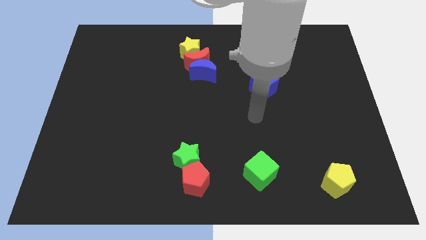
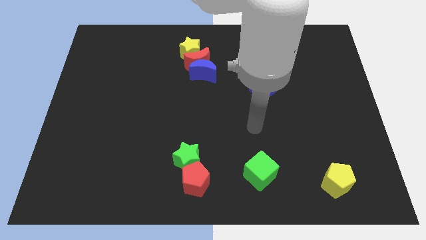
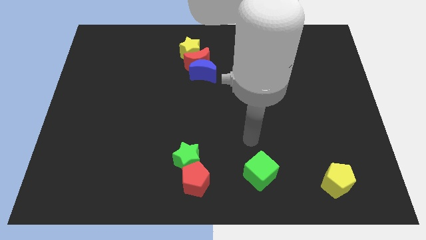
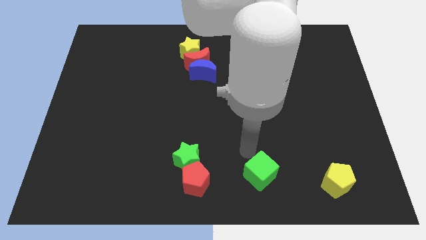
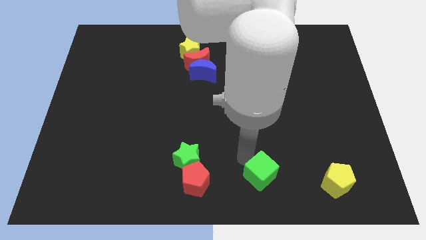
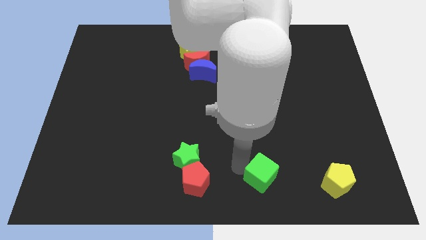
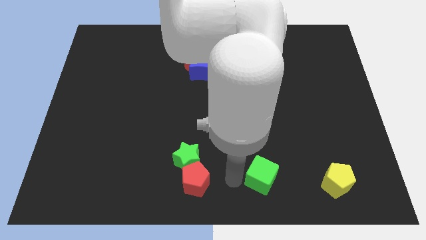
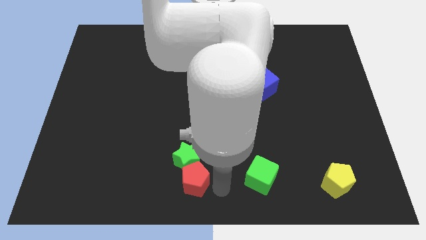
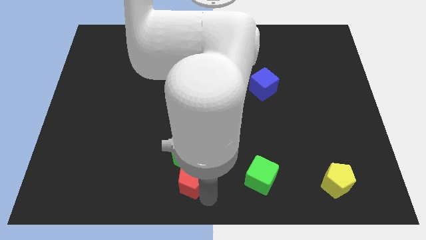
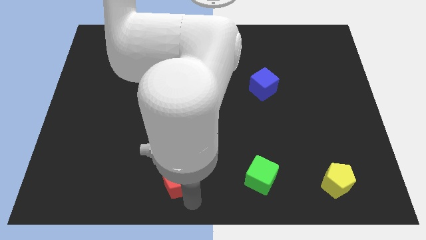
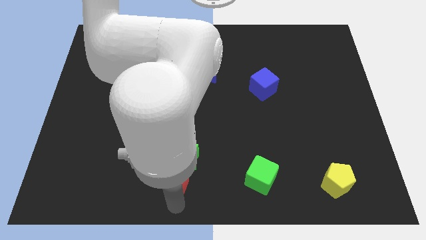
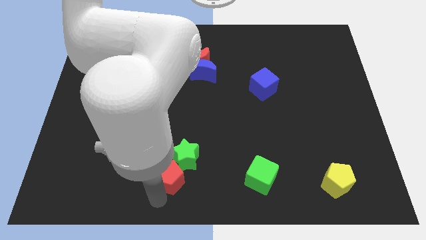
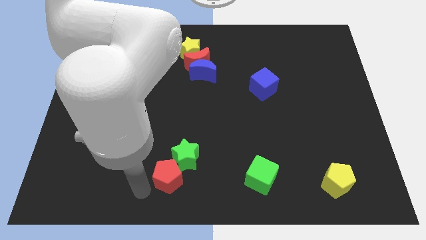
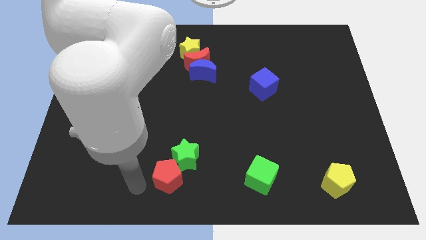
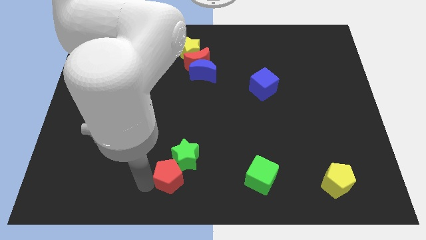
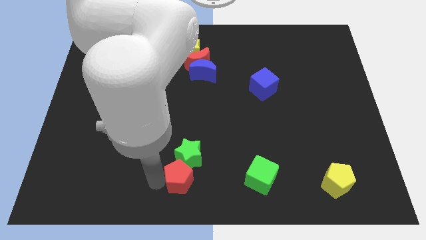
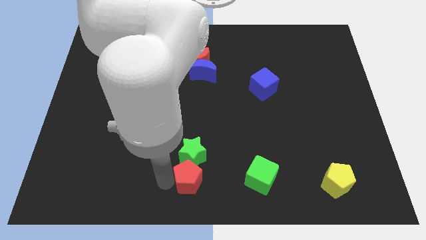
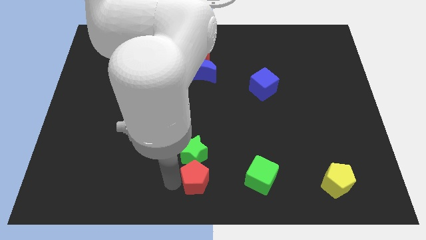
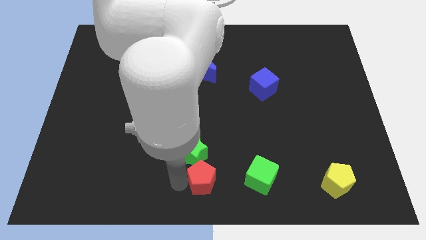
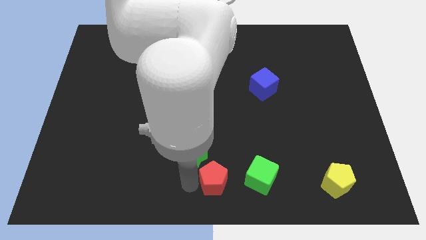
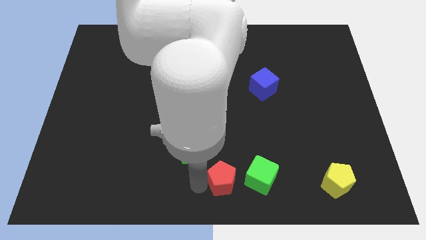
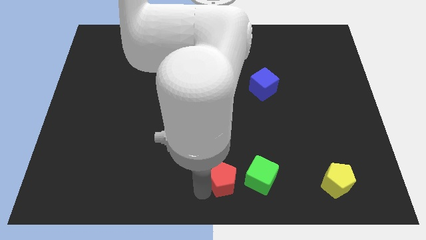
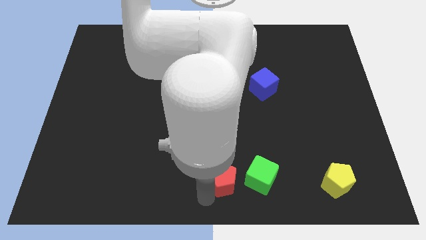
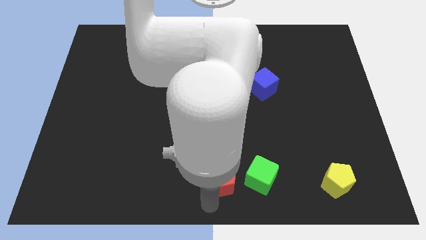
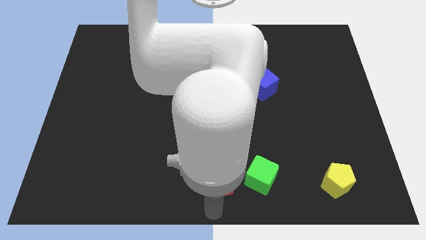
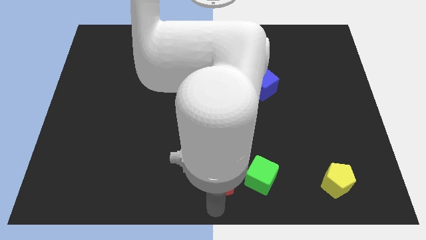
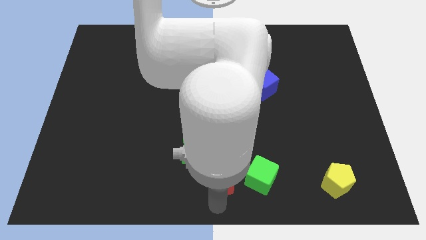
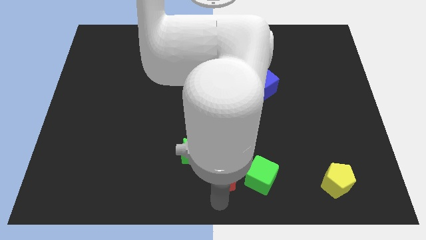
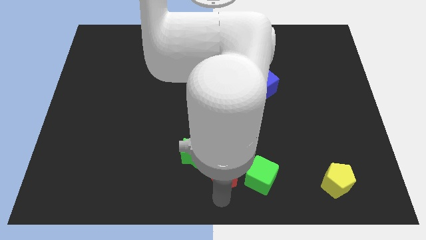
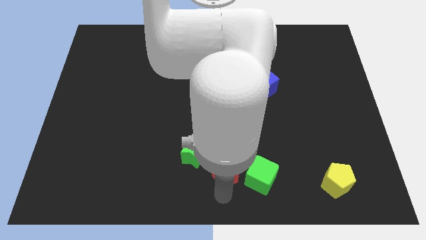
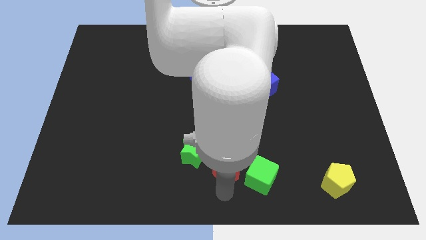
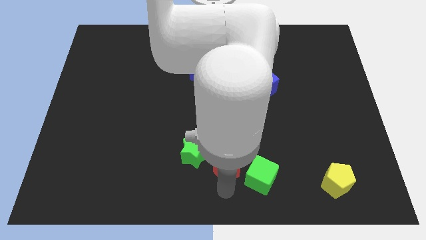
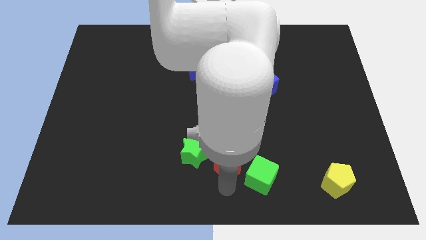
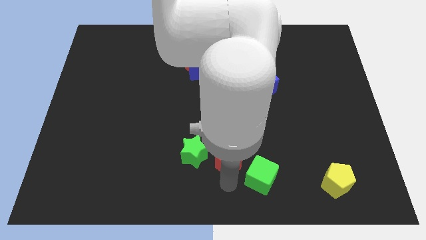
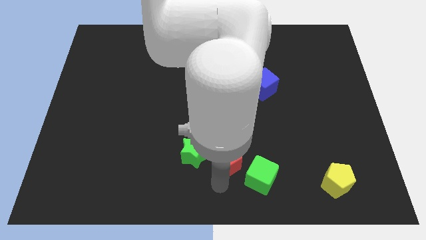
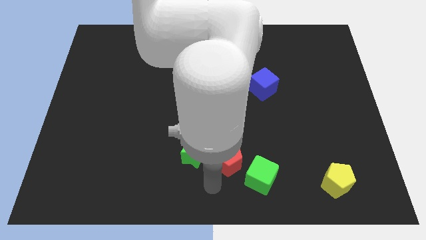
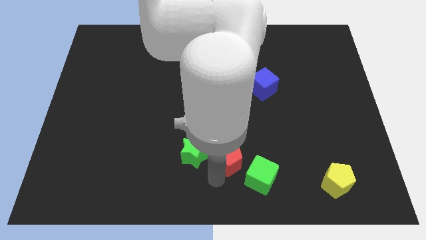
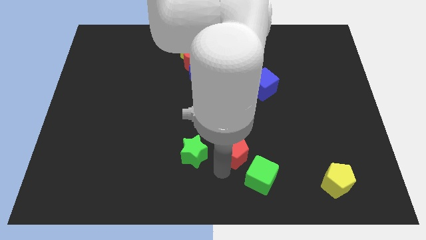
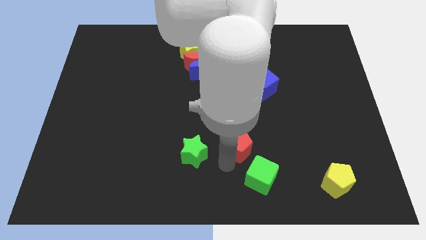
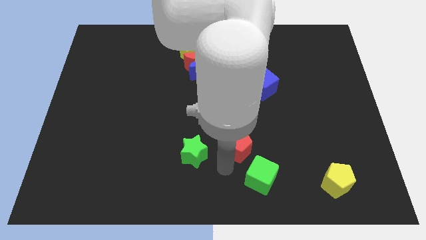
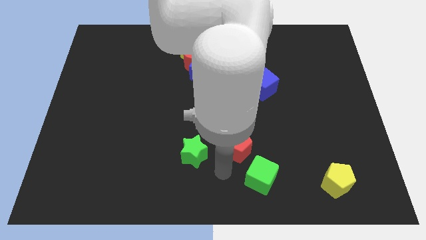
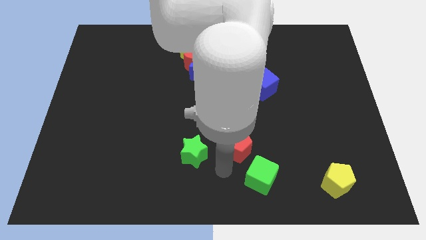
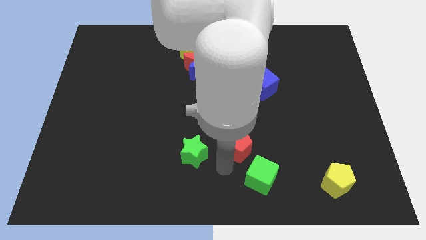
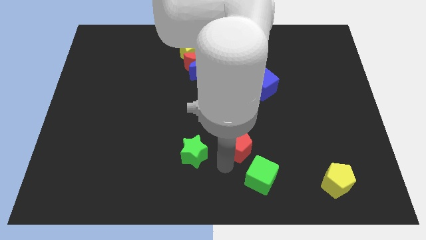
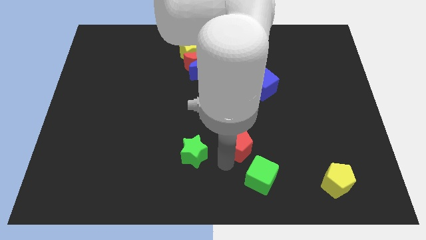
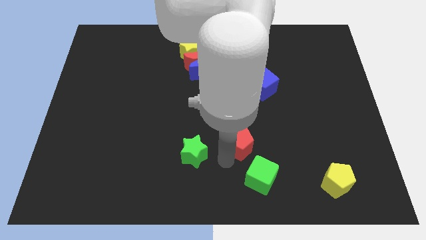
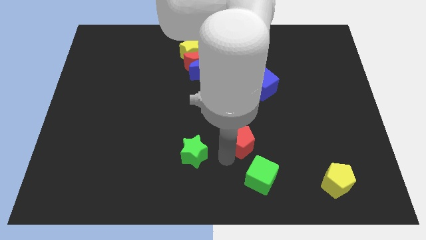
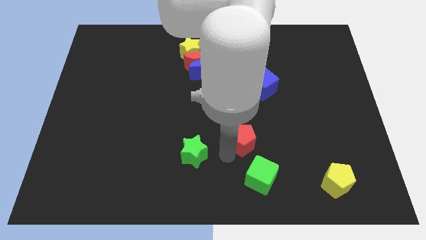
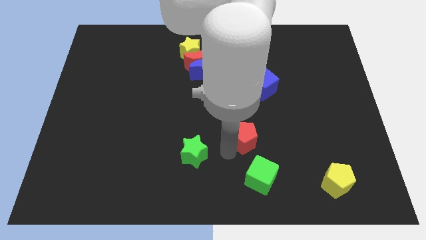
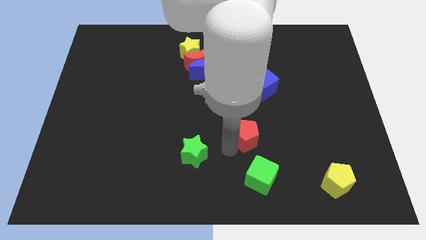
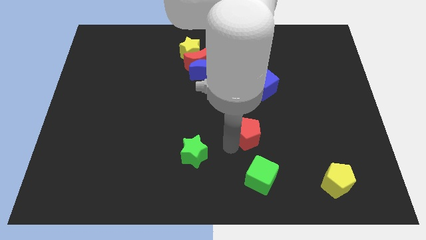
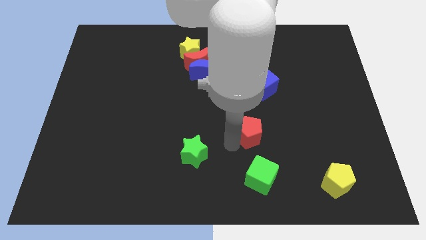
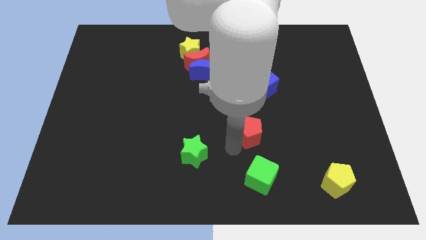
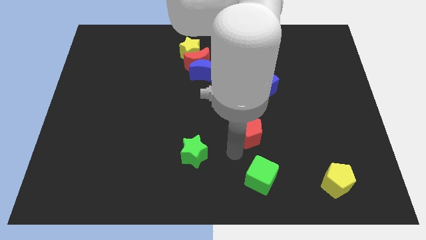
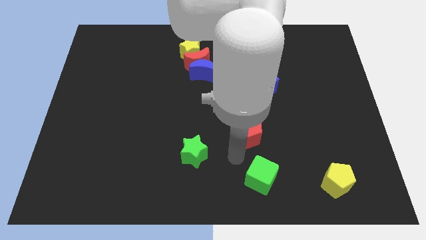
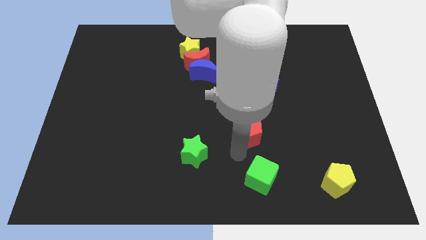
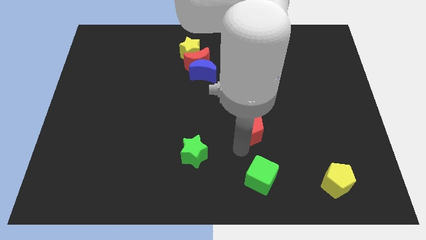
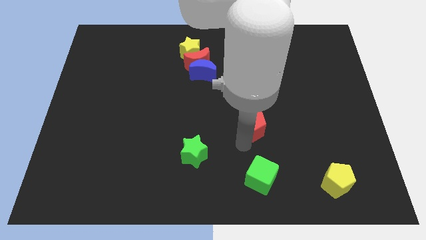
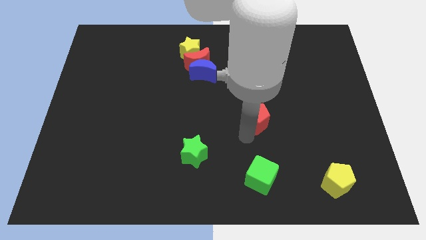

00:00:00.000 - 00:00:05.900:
move the red pentagon upwards and then right

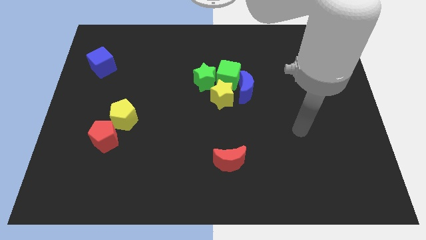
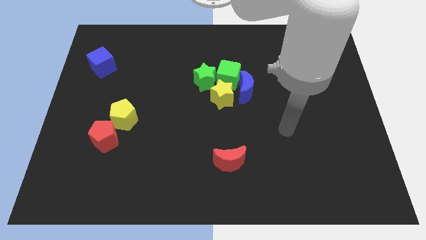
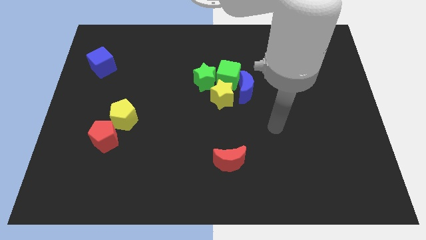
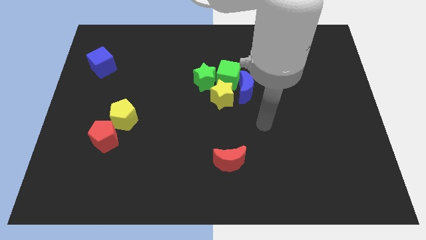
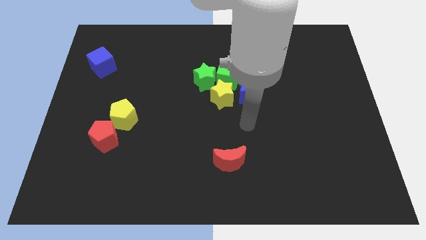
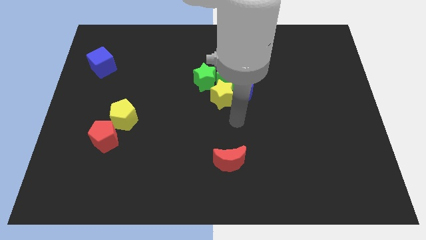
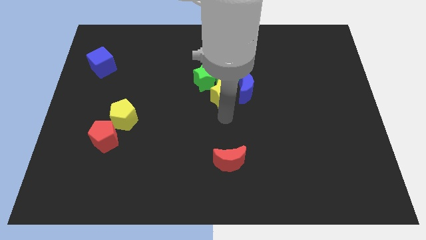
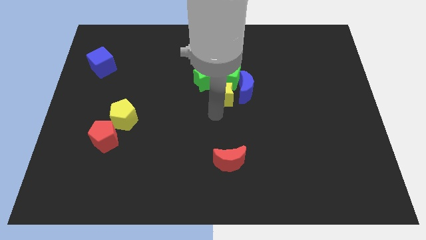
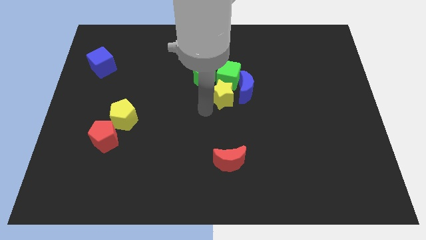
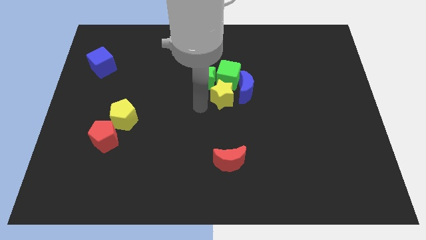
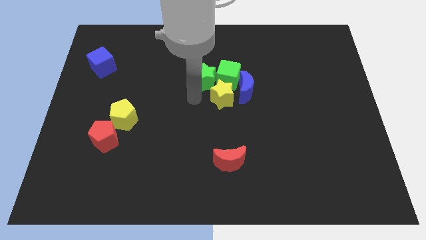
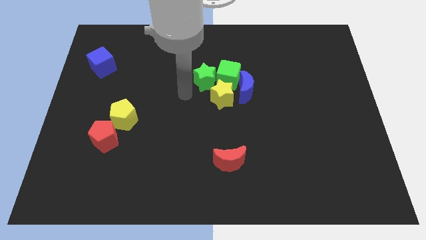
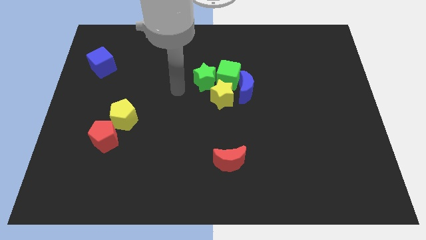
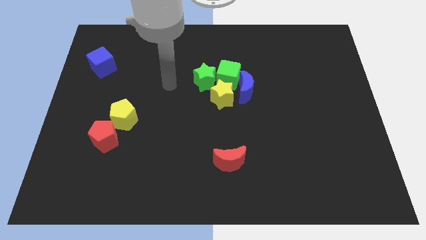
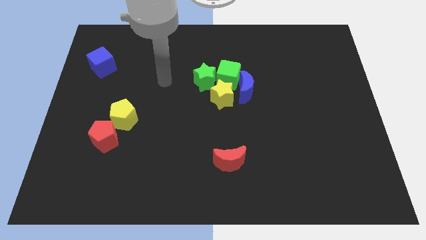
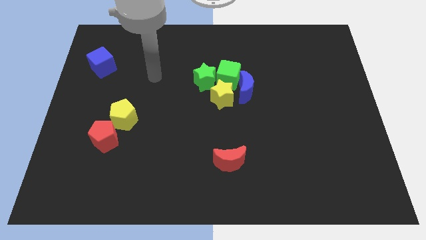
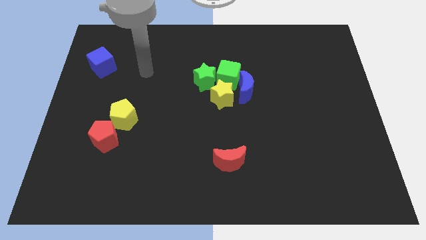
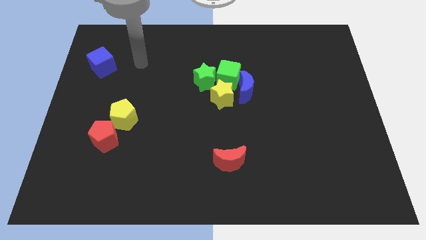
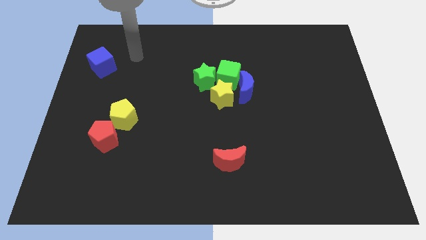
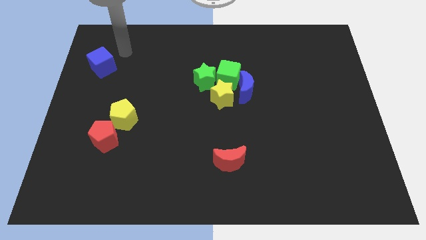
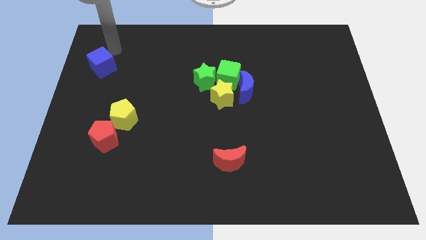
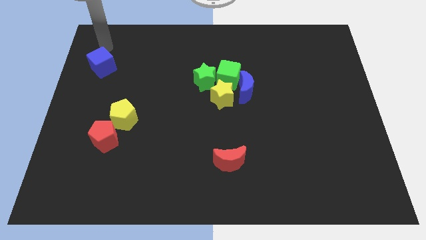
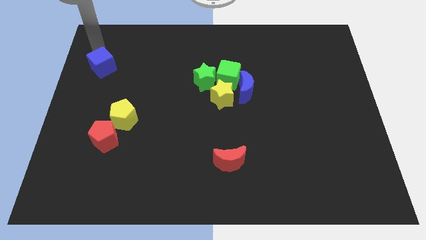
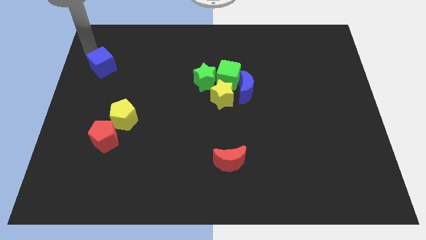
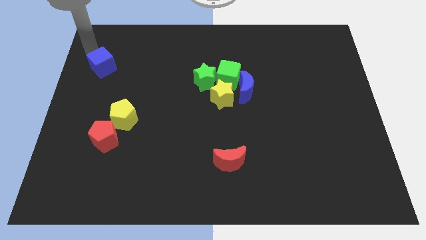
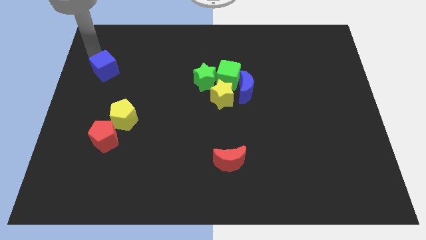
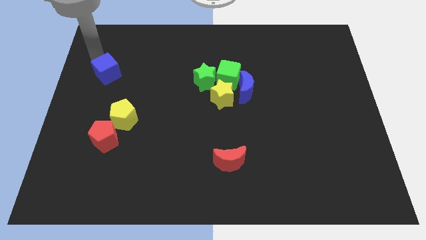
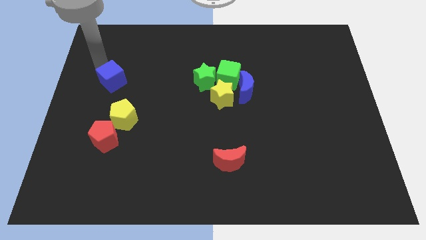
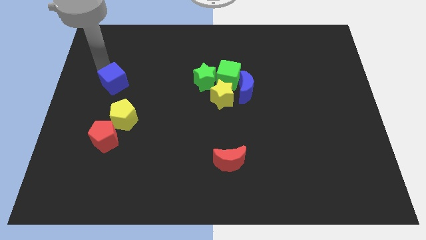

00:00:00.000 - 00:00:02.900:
push the blue cube down and then to the right a little bit
